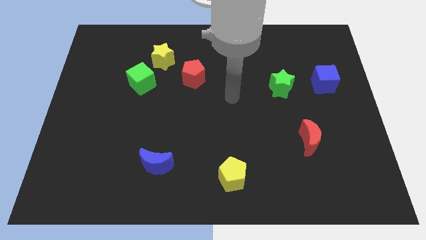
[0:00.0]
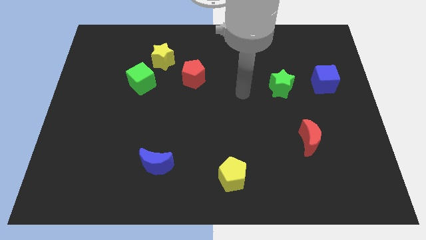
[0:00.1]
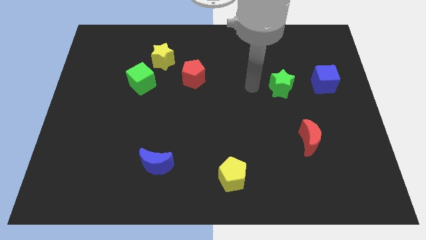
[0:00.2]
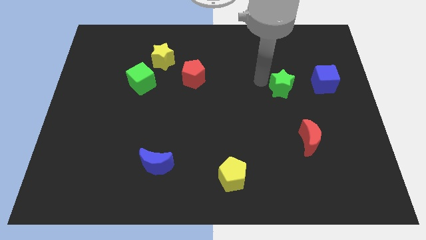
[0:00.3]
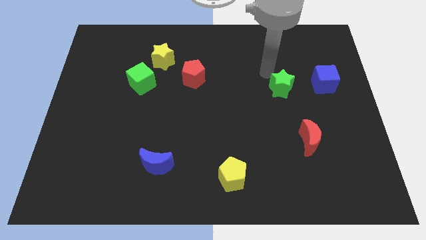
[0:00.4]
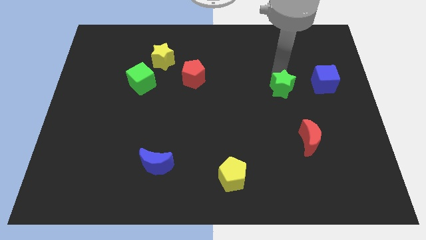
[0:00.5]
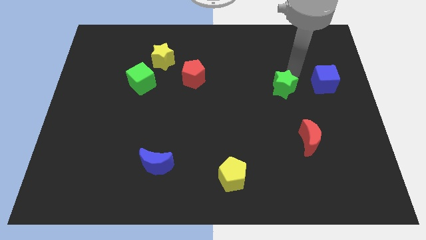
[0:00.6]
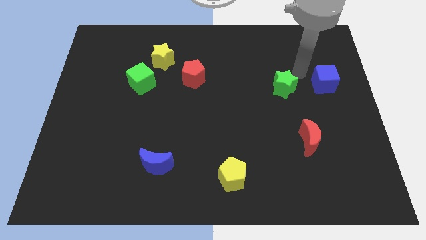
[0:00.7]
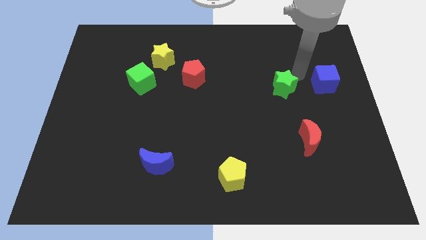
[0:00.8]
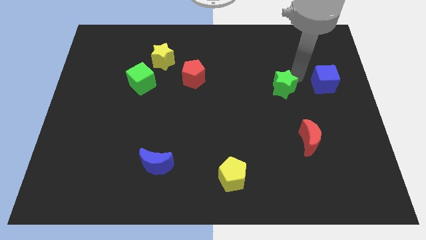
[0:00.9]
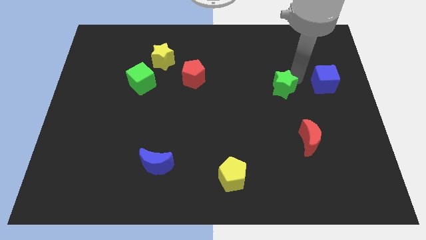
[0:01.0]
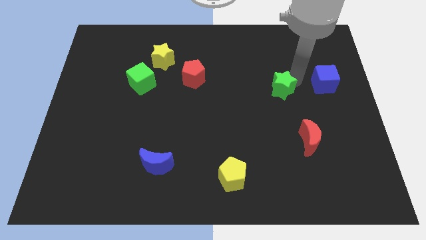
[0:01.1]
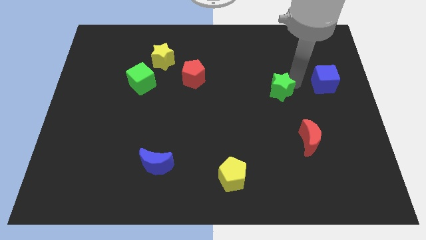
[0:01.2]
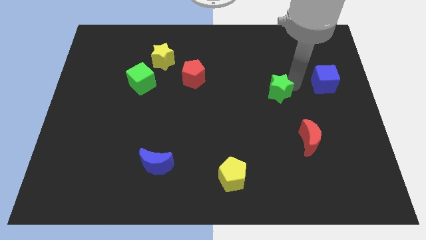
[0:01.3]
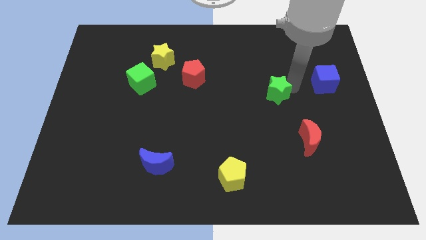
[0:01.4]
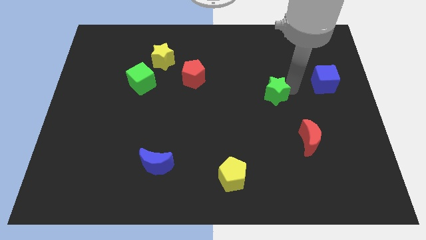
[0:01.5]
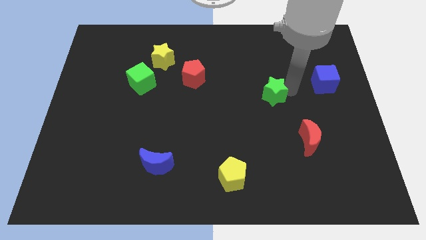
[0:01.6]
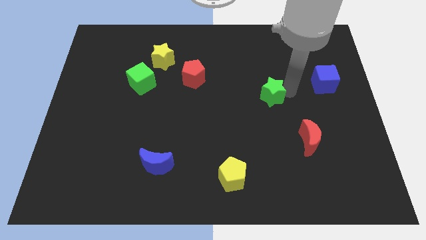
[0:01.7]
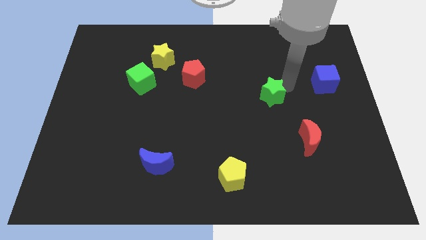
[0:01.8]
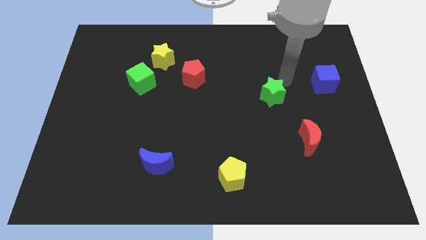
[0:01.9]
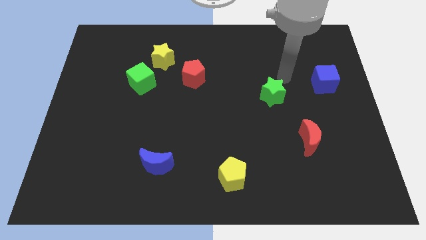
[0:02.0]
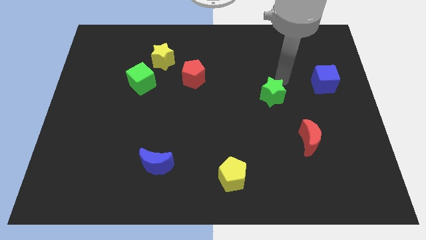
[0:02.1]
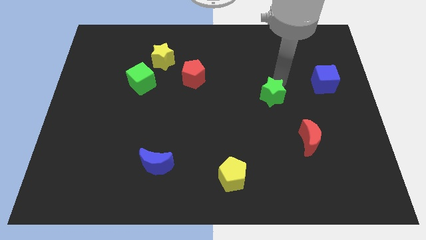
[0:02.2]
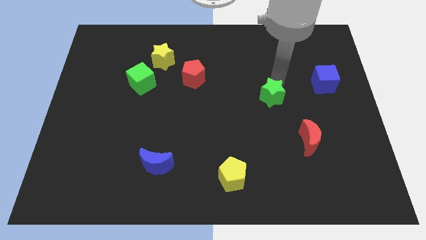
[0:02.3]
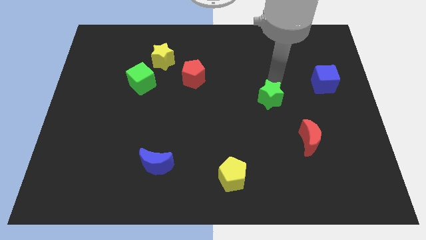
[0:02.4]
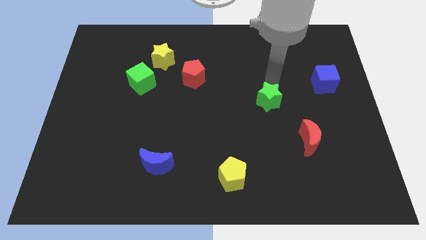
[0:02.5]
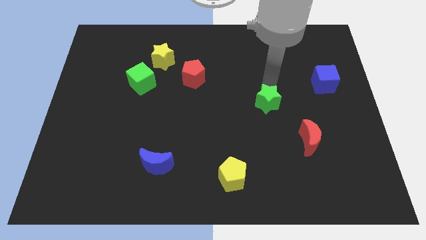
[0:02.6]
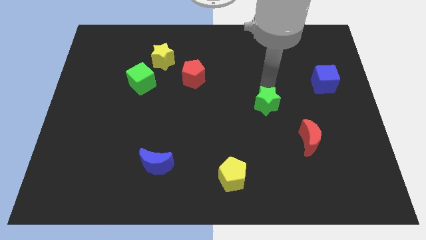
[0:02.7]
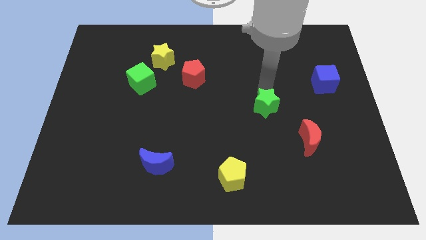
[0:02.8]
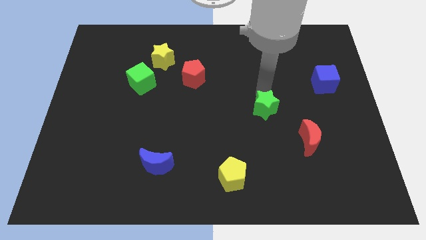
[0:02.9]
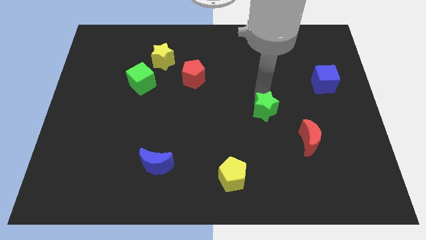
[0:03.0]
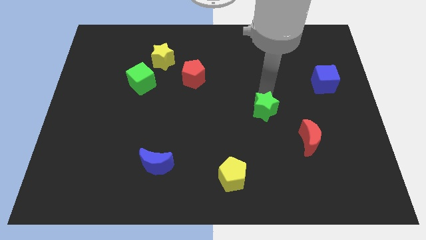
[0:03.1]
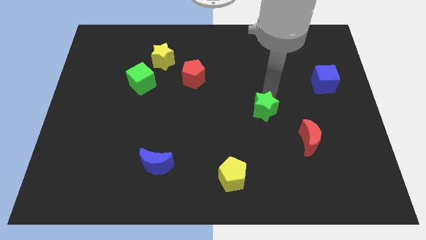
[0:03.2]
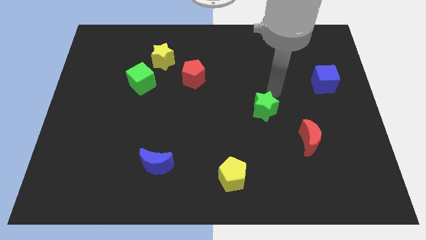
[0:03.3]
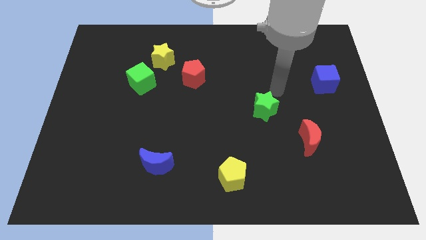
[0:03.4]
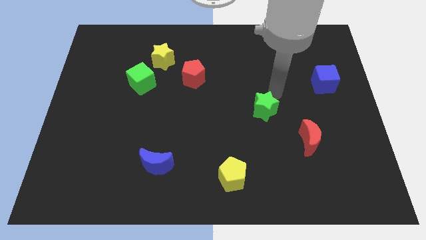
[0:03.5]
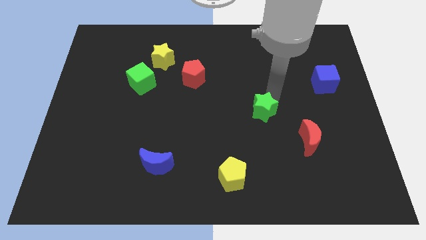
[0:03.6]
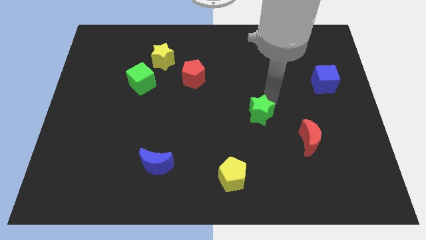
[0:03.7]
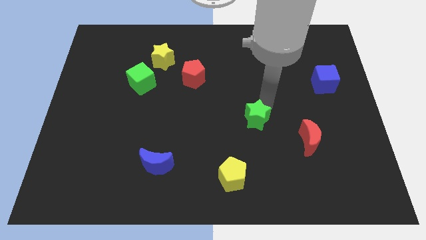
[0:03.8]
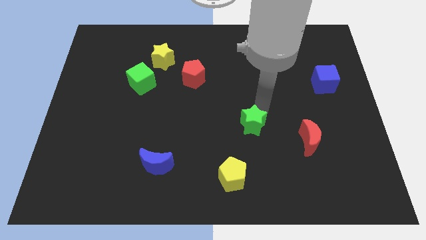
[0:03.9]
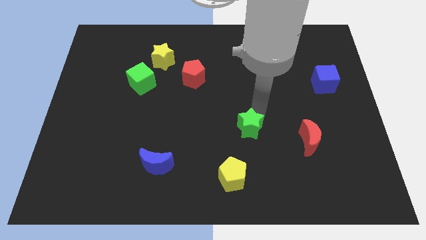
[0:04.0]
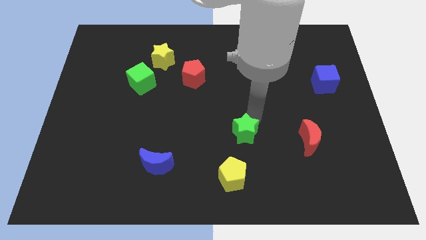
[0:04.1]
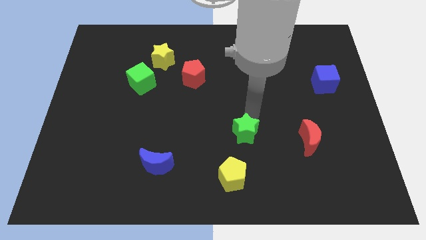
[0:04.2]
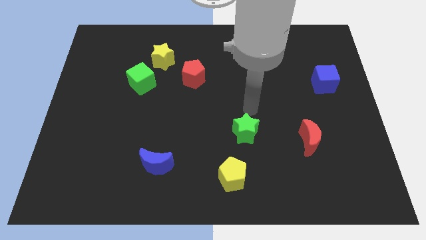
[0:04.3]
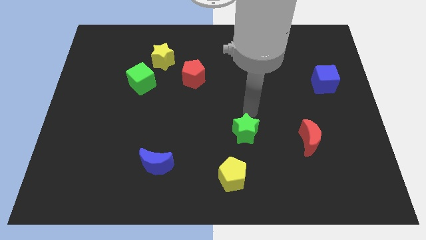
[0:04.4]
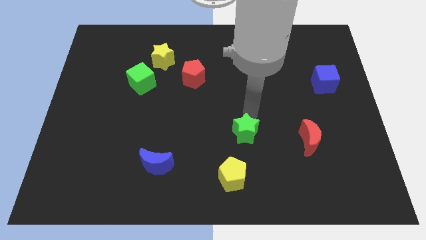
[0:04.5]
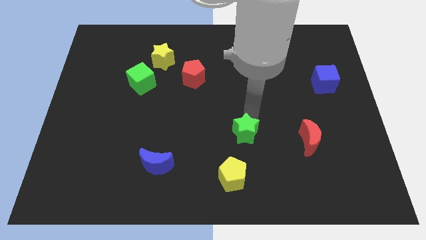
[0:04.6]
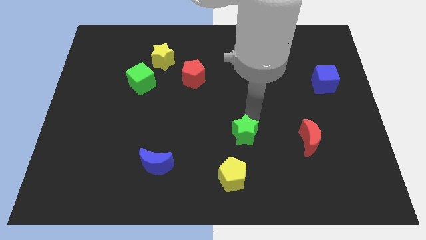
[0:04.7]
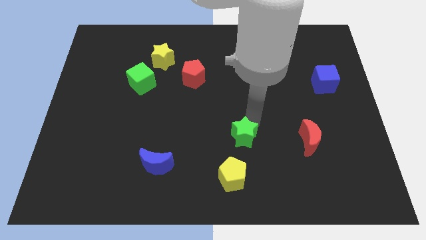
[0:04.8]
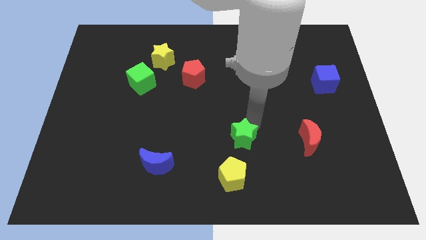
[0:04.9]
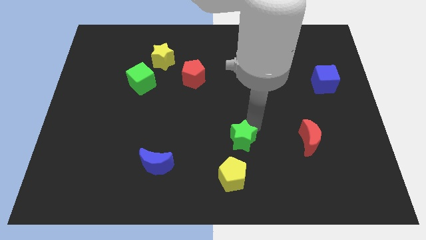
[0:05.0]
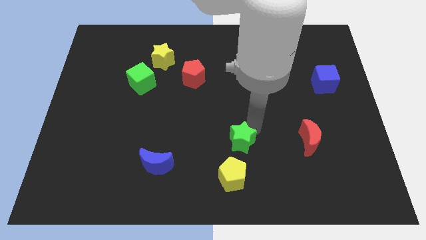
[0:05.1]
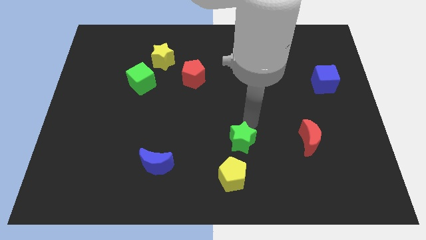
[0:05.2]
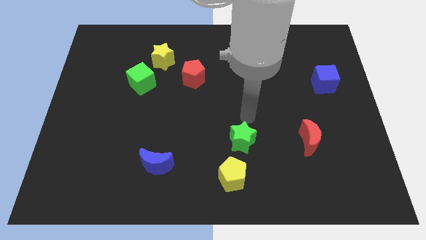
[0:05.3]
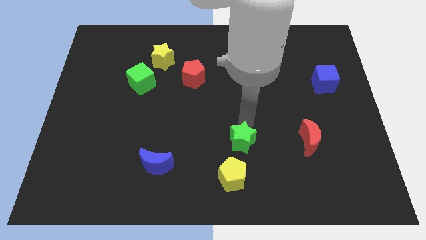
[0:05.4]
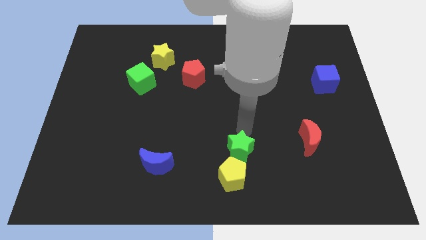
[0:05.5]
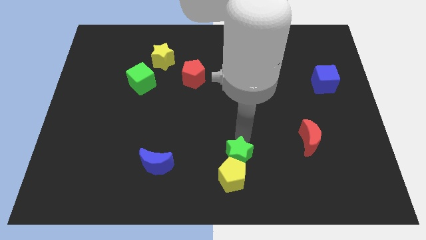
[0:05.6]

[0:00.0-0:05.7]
slide the green star towards the yellow pentagon

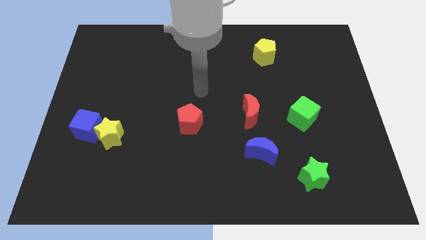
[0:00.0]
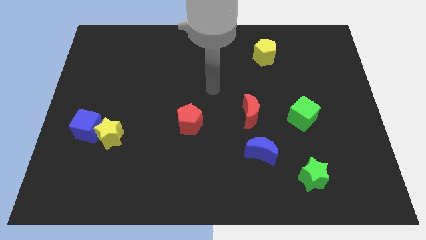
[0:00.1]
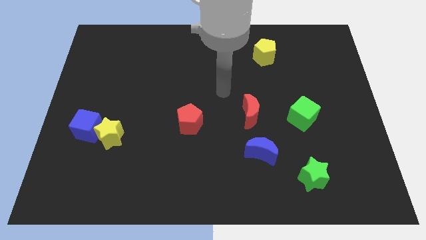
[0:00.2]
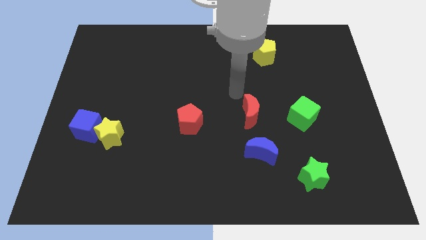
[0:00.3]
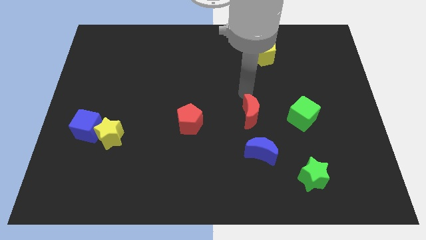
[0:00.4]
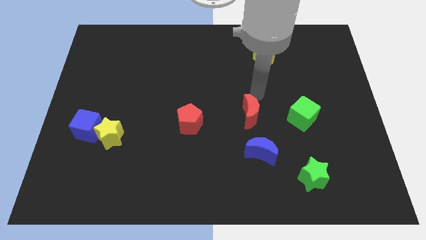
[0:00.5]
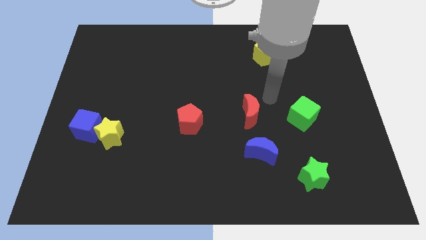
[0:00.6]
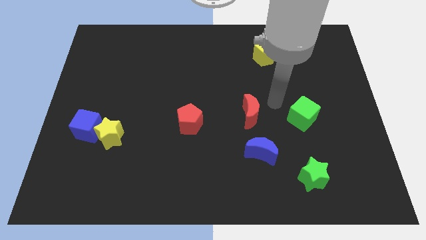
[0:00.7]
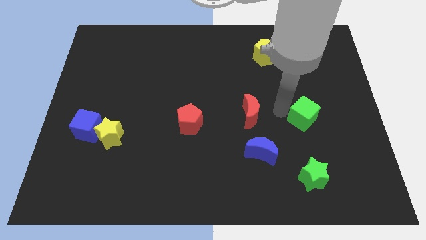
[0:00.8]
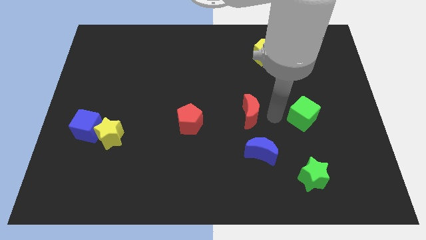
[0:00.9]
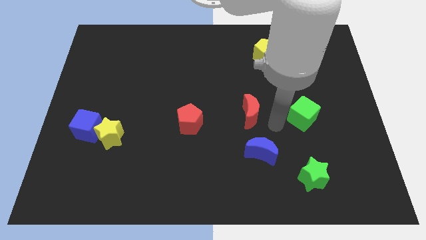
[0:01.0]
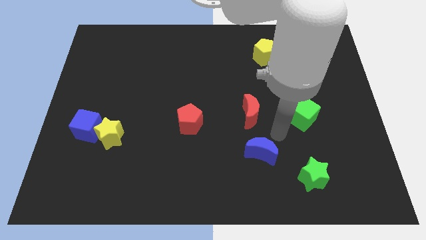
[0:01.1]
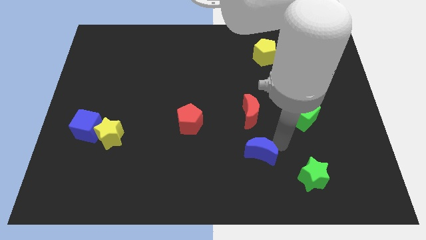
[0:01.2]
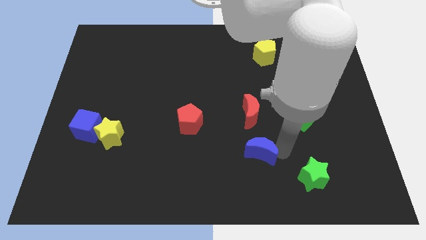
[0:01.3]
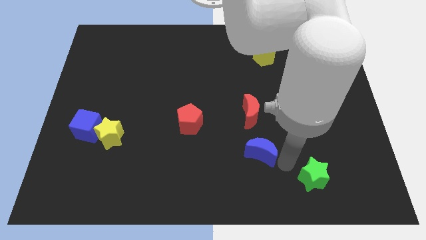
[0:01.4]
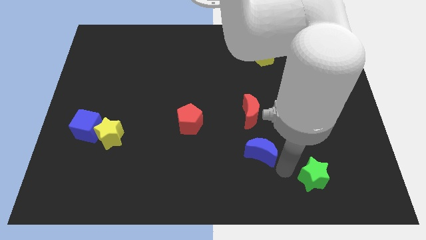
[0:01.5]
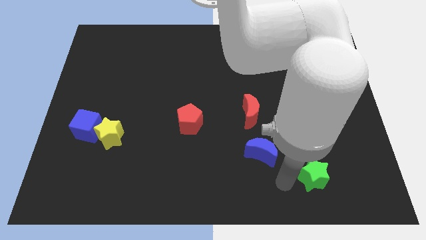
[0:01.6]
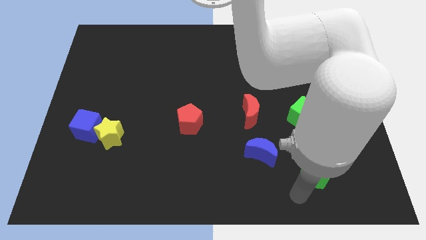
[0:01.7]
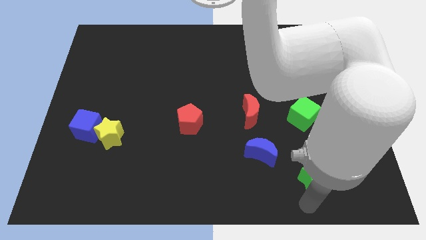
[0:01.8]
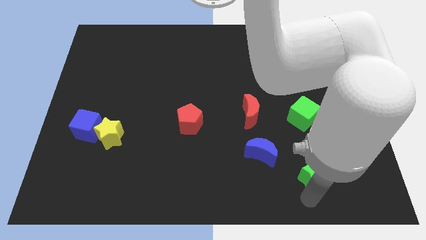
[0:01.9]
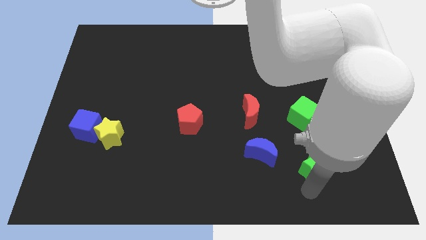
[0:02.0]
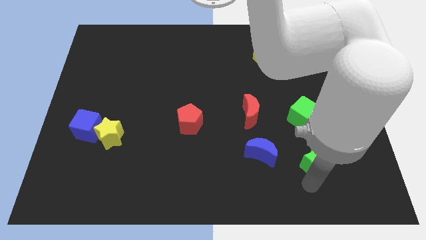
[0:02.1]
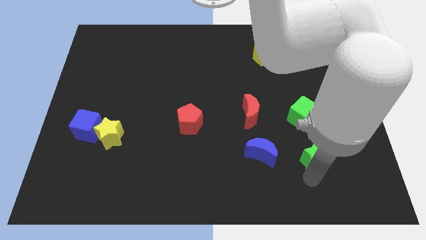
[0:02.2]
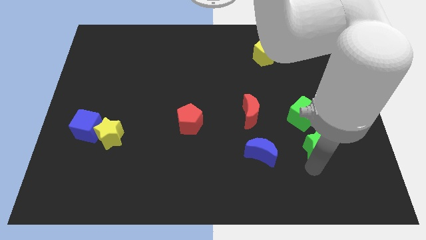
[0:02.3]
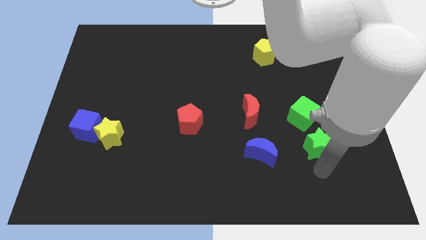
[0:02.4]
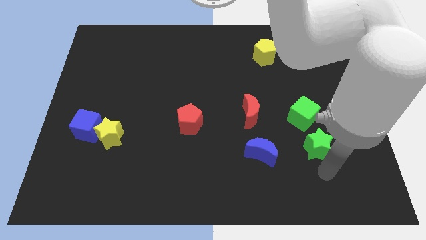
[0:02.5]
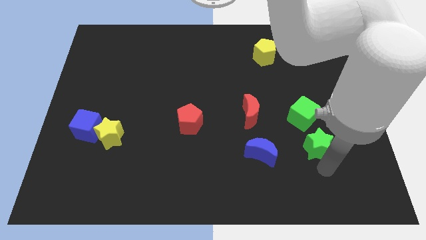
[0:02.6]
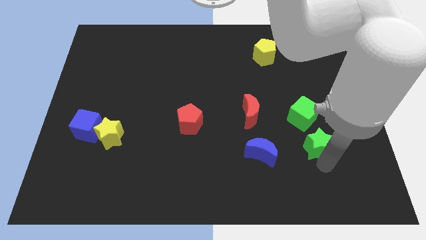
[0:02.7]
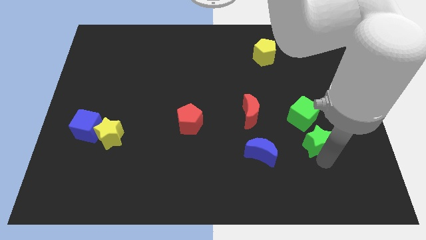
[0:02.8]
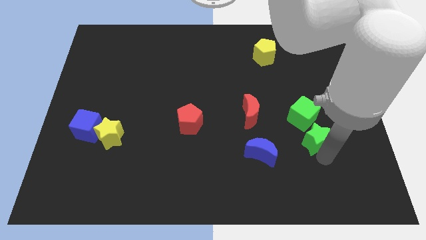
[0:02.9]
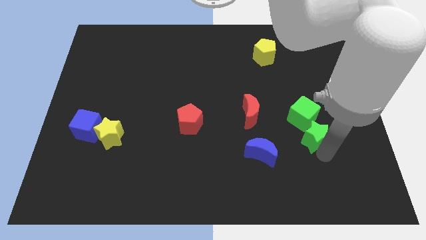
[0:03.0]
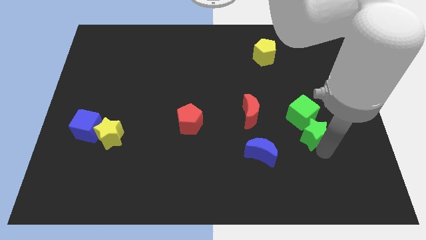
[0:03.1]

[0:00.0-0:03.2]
put the green star close to the green cube
